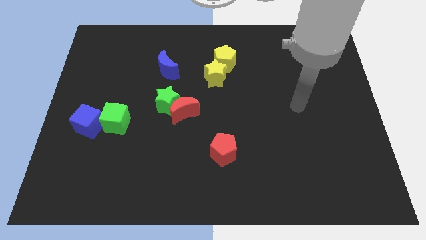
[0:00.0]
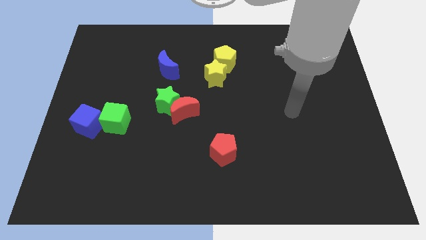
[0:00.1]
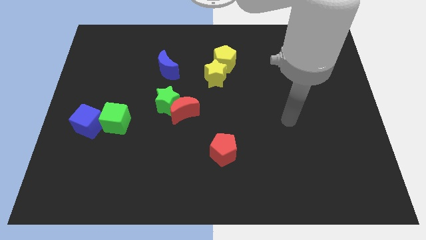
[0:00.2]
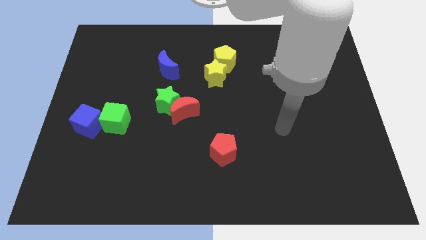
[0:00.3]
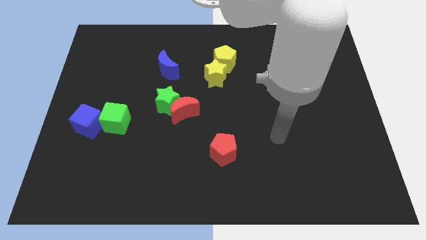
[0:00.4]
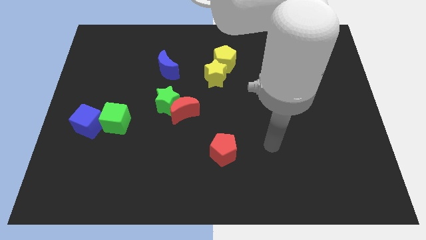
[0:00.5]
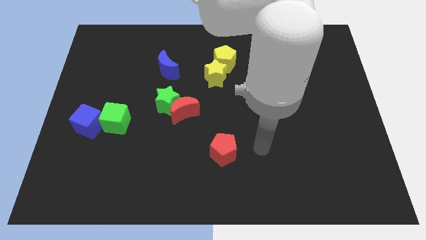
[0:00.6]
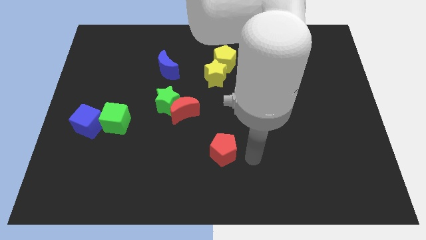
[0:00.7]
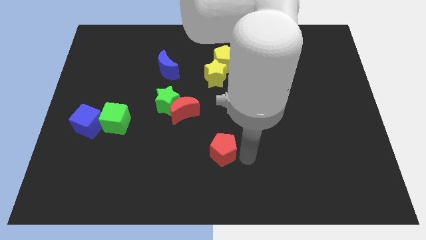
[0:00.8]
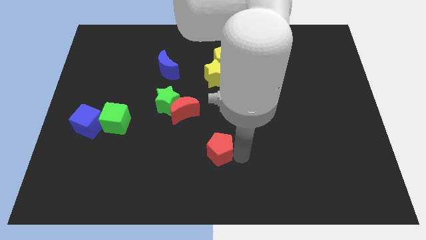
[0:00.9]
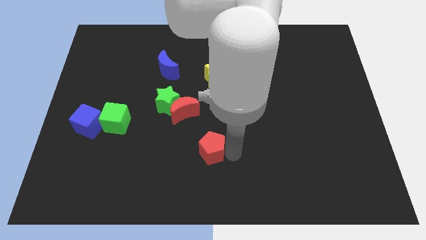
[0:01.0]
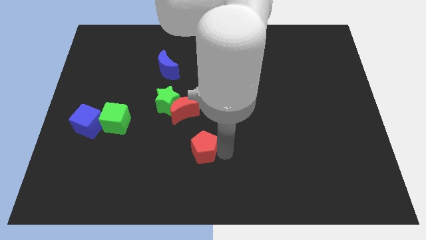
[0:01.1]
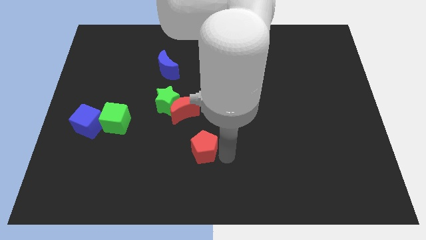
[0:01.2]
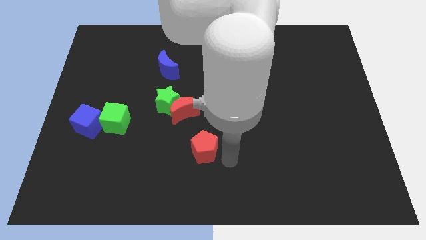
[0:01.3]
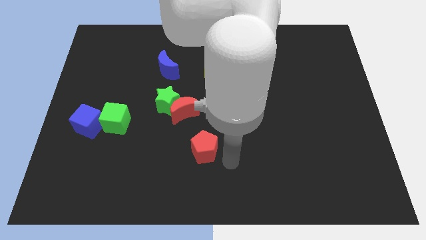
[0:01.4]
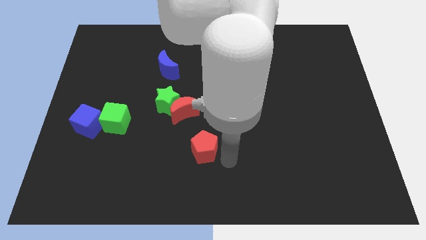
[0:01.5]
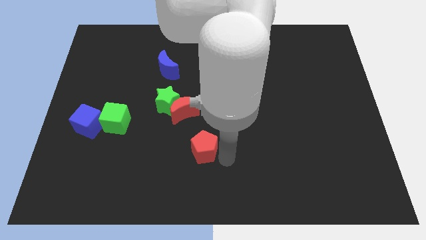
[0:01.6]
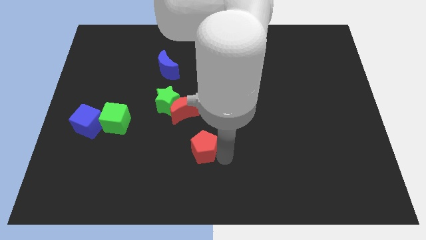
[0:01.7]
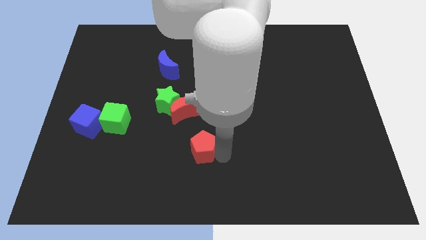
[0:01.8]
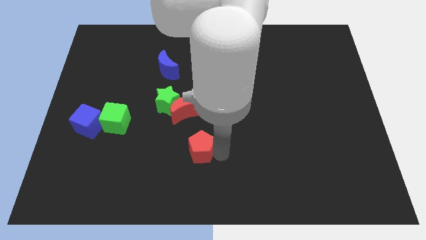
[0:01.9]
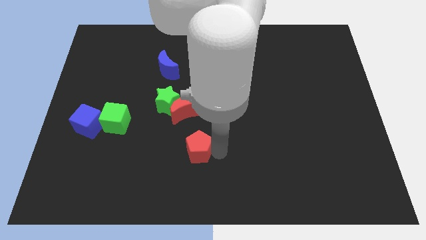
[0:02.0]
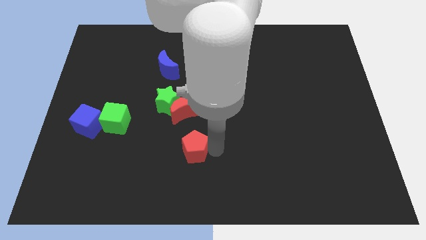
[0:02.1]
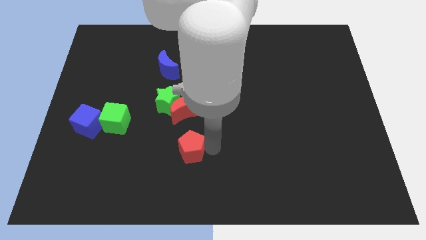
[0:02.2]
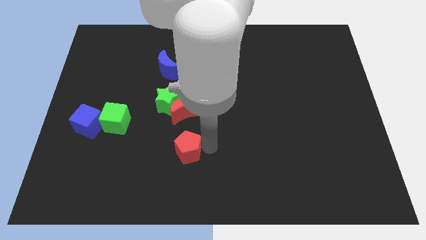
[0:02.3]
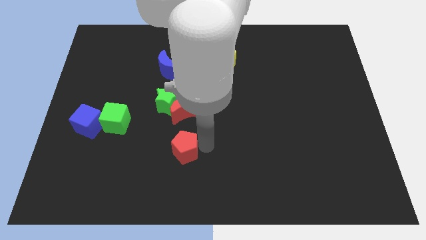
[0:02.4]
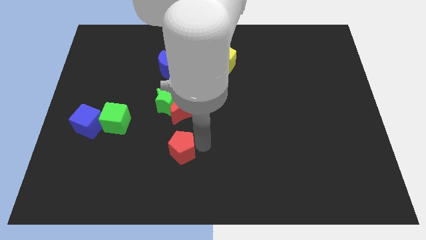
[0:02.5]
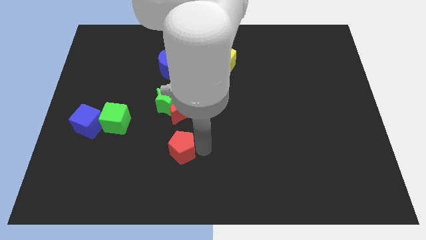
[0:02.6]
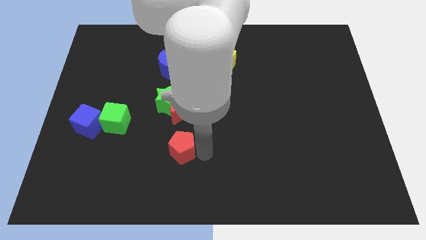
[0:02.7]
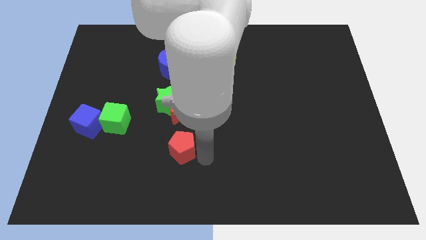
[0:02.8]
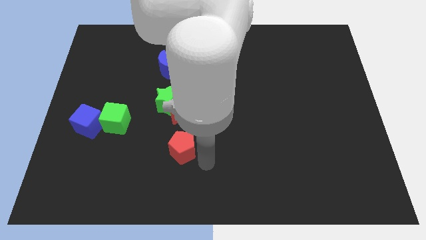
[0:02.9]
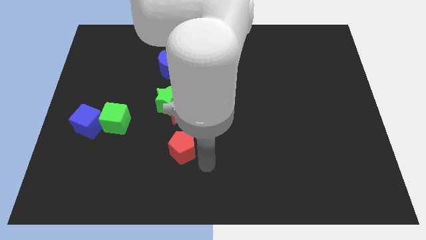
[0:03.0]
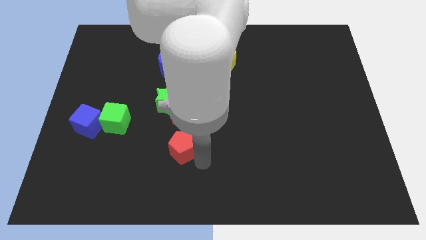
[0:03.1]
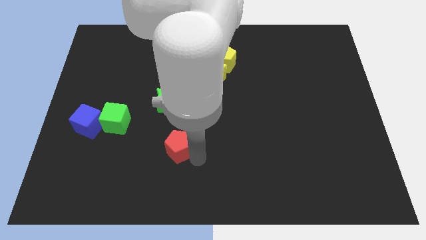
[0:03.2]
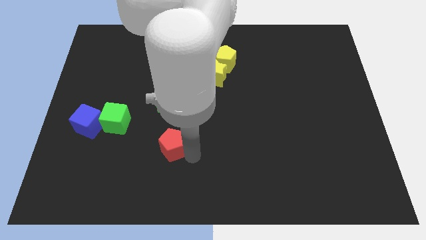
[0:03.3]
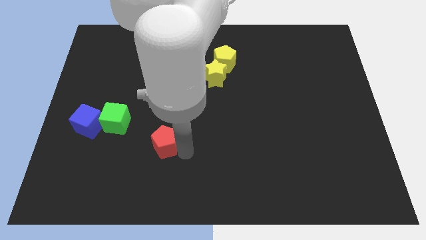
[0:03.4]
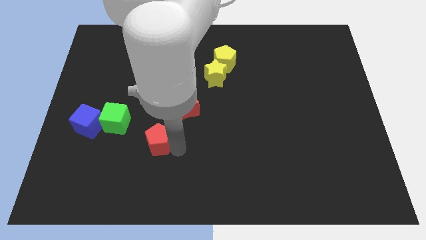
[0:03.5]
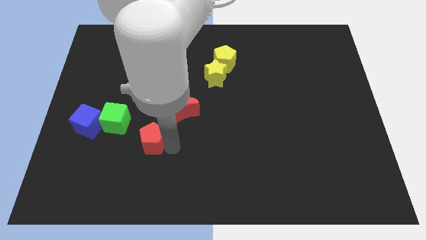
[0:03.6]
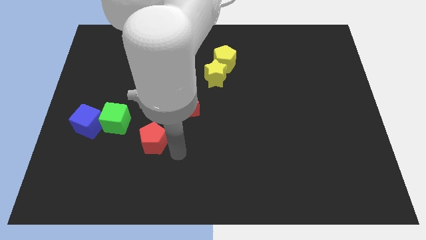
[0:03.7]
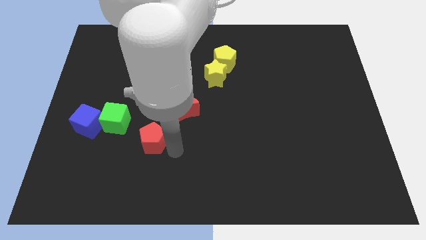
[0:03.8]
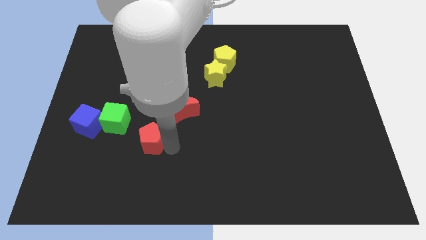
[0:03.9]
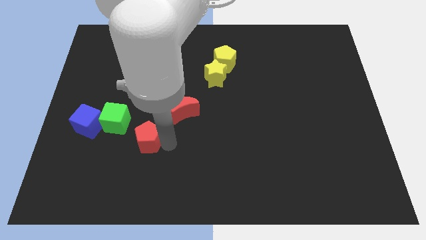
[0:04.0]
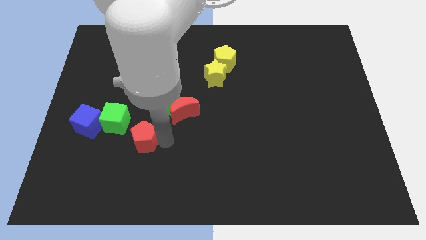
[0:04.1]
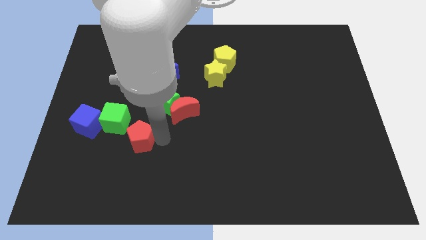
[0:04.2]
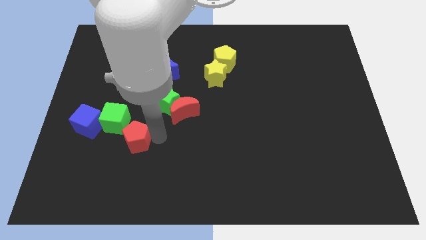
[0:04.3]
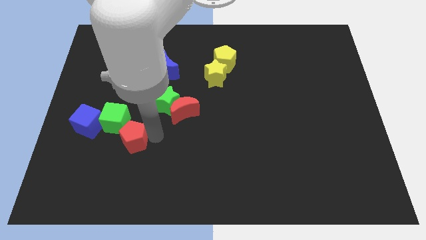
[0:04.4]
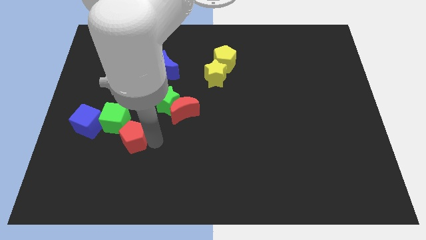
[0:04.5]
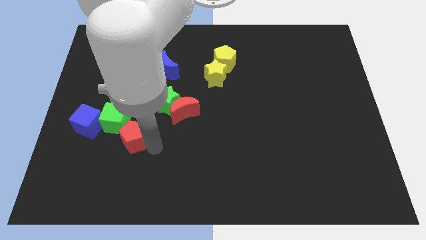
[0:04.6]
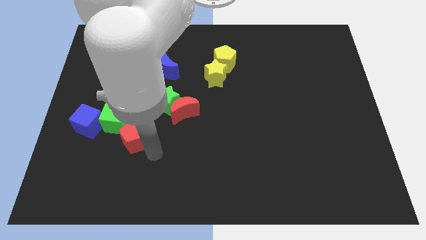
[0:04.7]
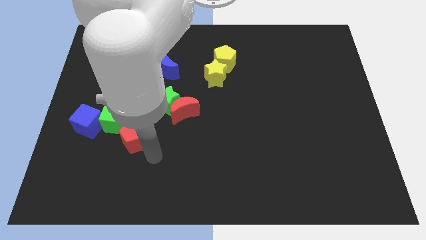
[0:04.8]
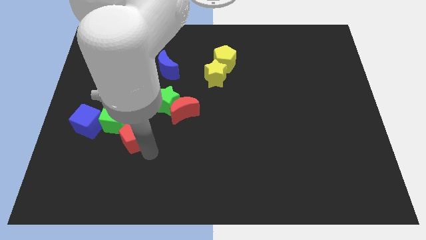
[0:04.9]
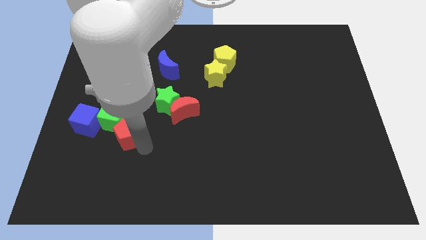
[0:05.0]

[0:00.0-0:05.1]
move the red pentagon to the green cube

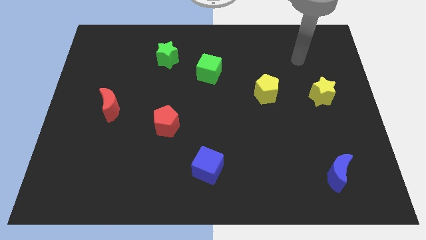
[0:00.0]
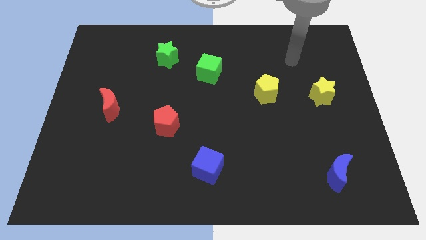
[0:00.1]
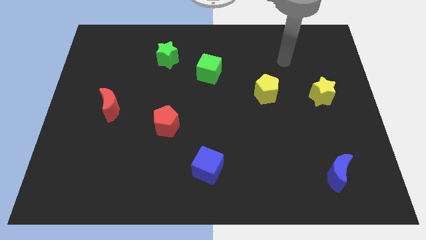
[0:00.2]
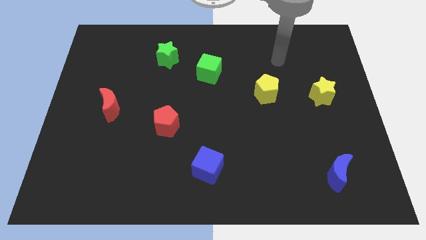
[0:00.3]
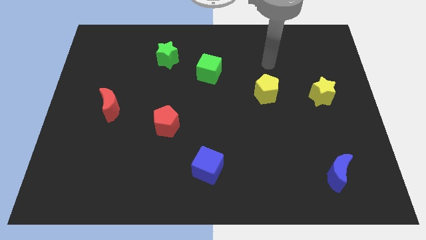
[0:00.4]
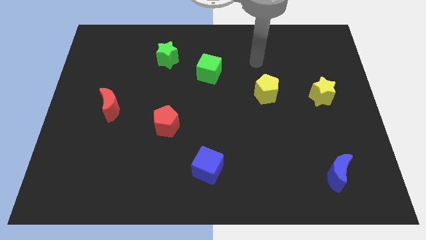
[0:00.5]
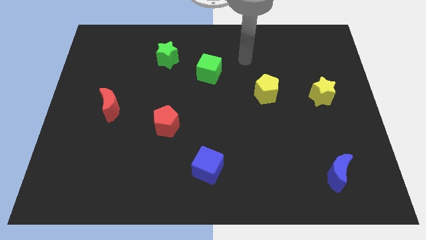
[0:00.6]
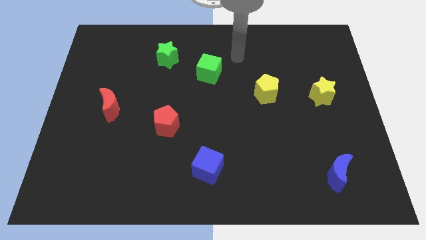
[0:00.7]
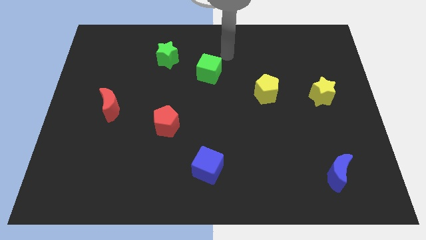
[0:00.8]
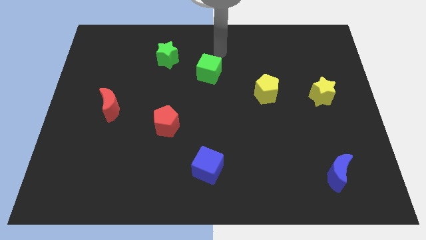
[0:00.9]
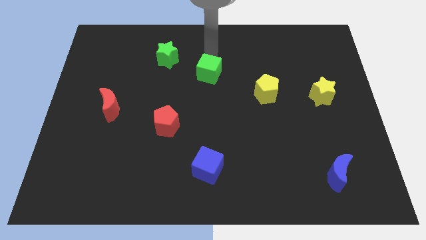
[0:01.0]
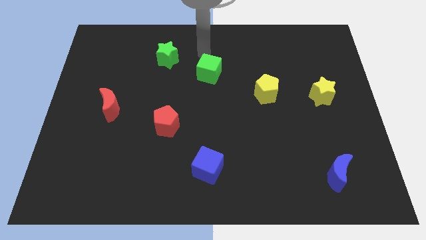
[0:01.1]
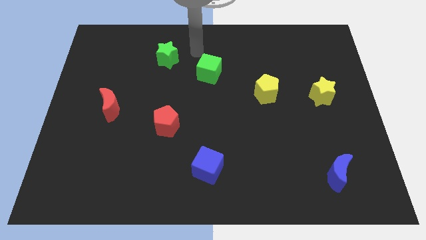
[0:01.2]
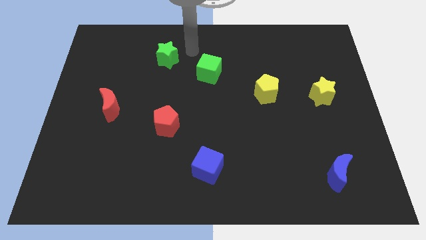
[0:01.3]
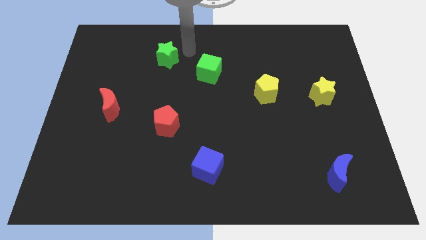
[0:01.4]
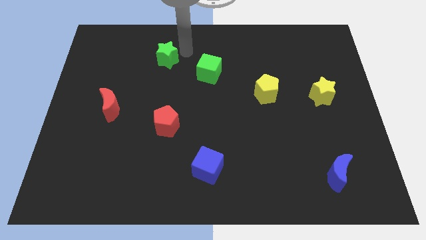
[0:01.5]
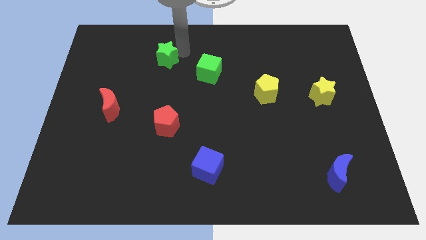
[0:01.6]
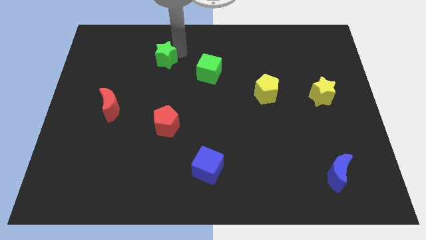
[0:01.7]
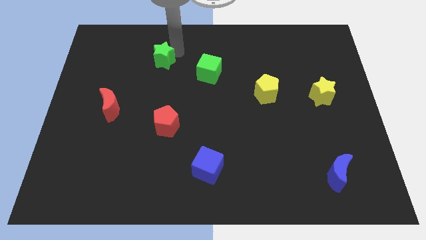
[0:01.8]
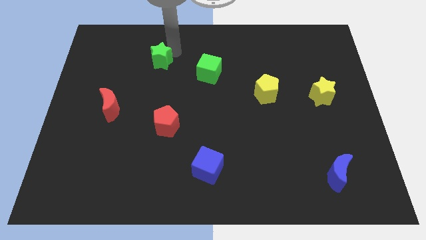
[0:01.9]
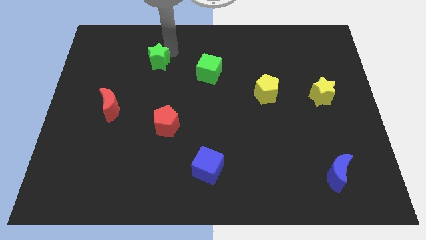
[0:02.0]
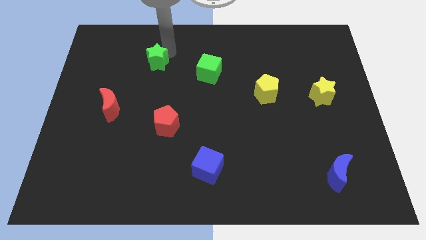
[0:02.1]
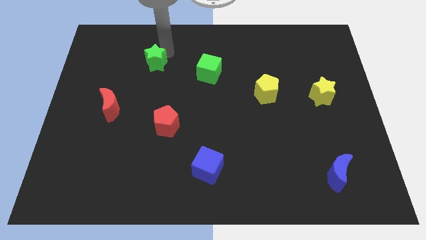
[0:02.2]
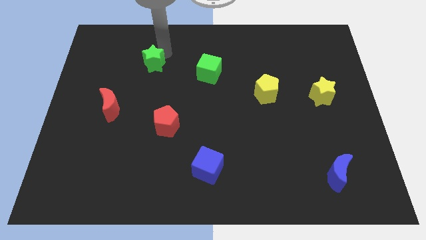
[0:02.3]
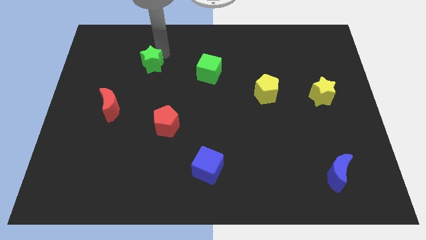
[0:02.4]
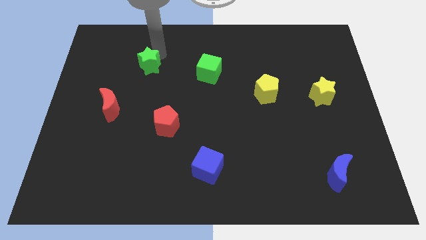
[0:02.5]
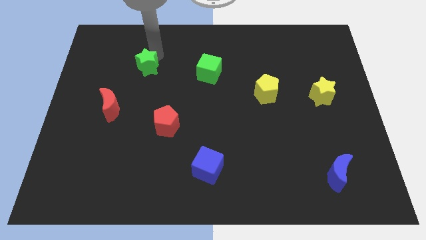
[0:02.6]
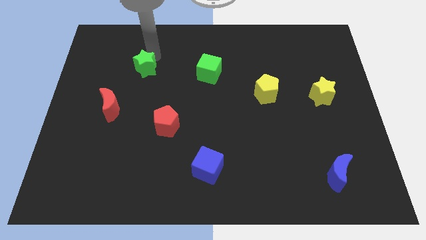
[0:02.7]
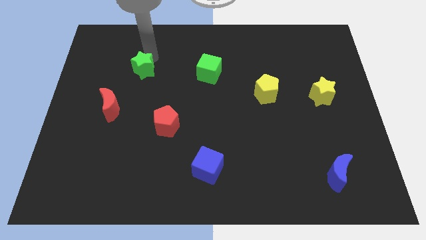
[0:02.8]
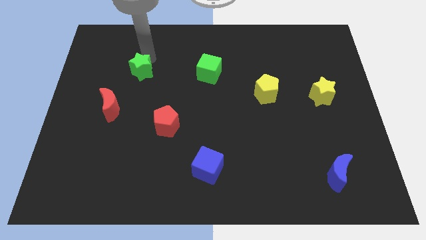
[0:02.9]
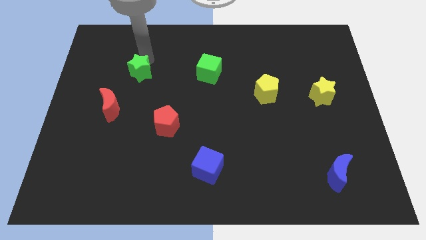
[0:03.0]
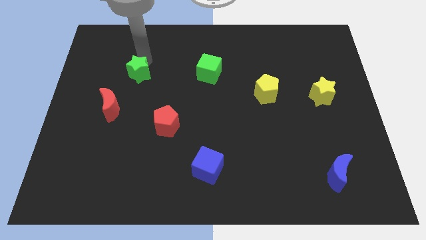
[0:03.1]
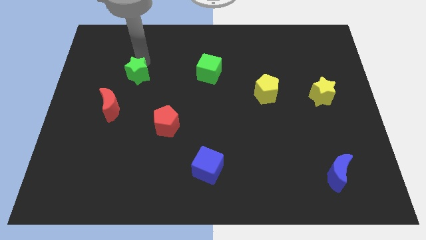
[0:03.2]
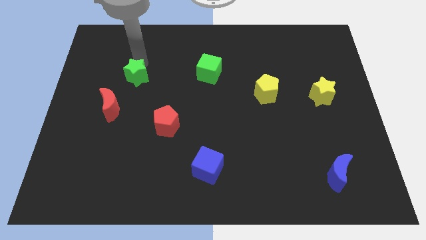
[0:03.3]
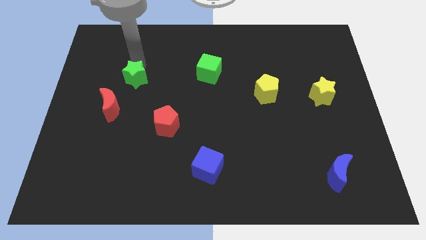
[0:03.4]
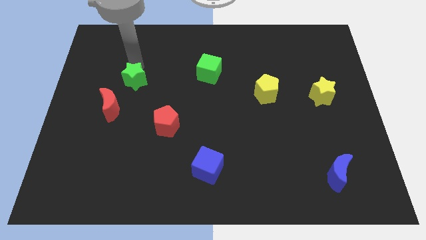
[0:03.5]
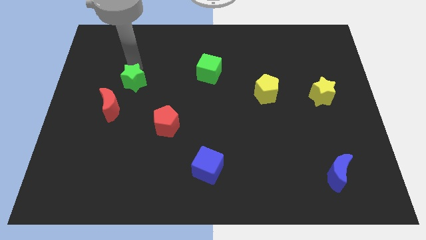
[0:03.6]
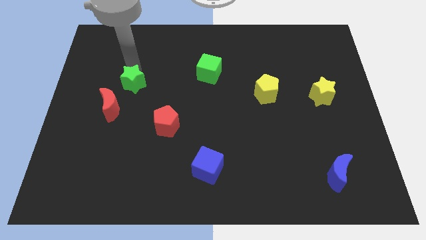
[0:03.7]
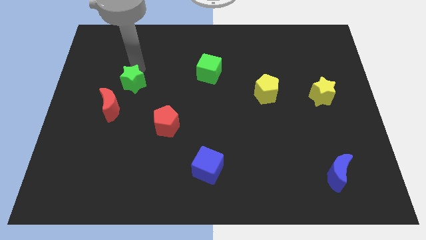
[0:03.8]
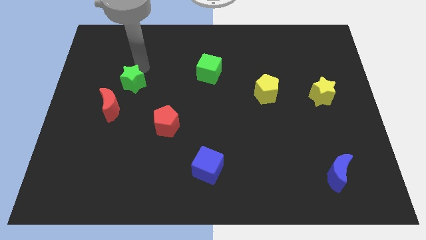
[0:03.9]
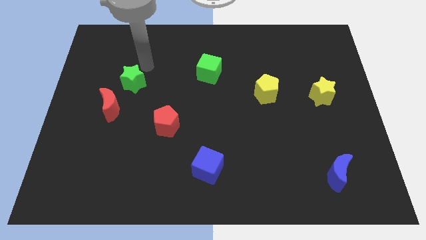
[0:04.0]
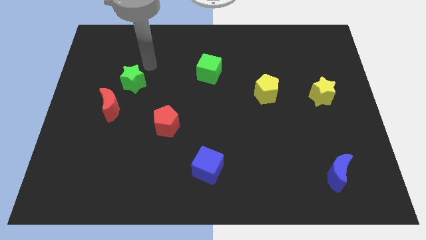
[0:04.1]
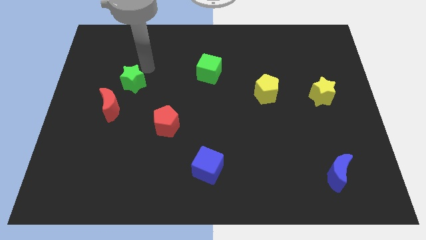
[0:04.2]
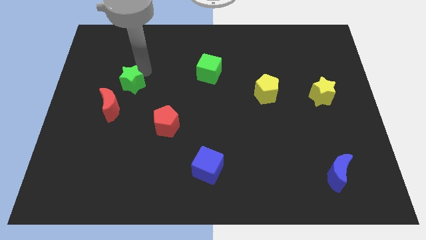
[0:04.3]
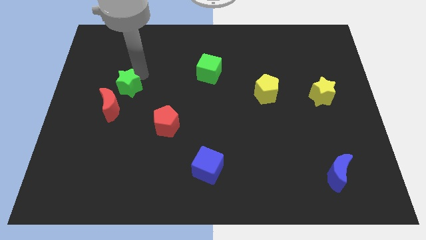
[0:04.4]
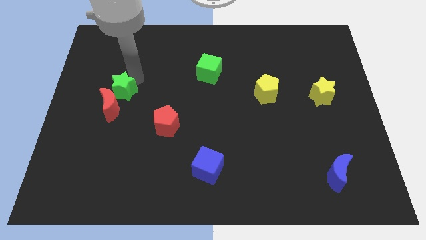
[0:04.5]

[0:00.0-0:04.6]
push the green star next to the red moon
